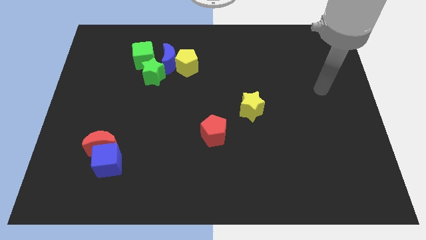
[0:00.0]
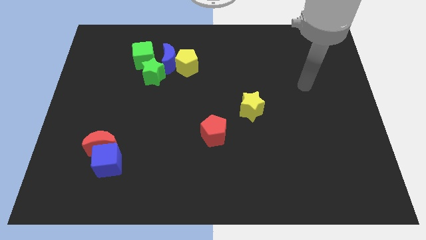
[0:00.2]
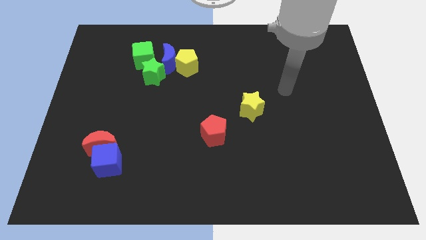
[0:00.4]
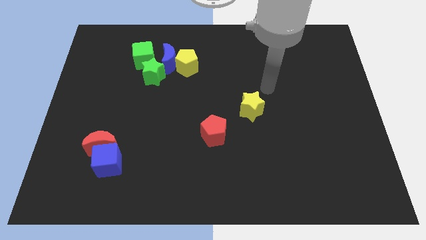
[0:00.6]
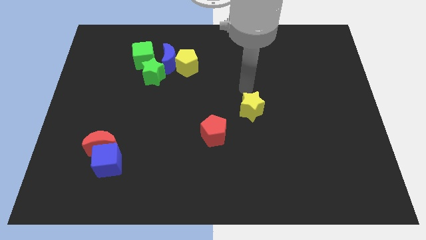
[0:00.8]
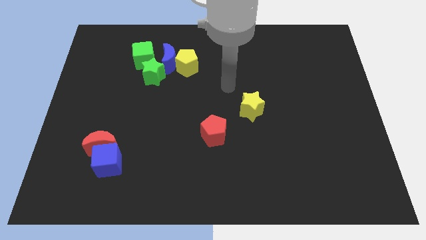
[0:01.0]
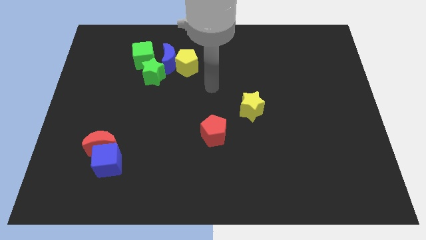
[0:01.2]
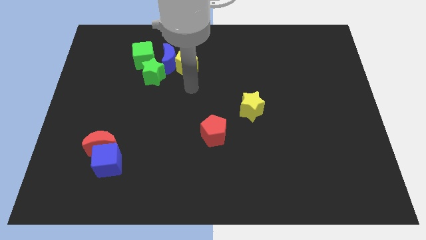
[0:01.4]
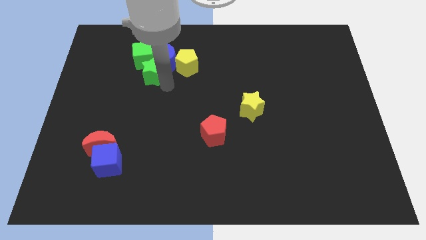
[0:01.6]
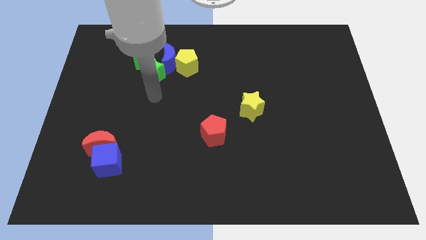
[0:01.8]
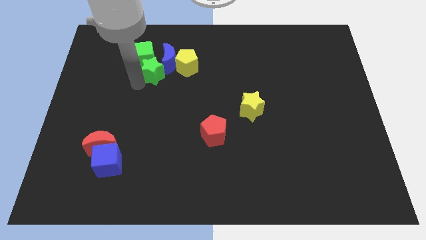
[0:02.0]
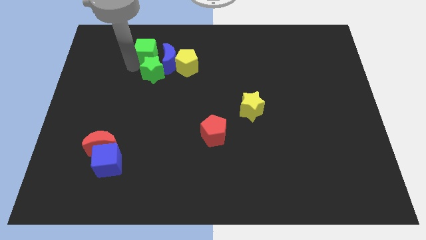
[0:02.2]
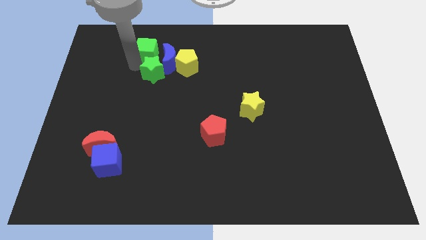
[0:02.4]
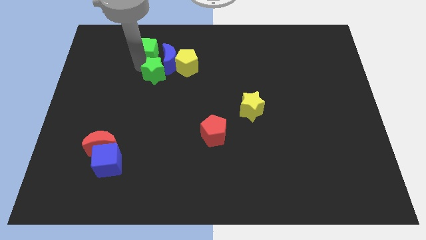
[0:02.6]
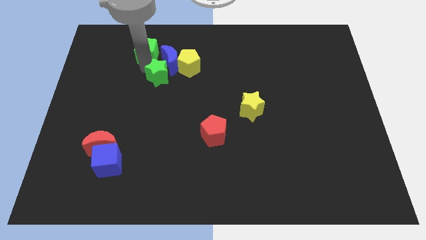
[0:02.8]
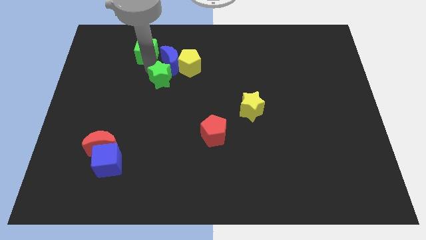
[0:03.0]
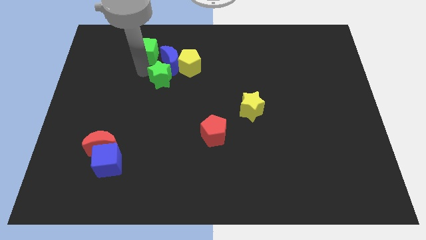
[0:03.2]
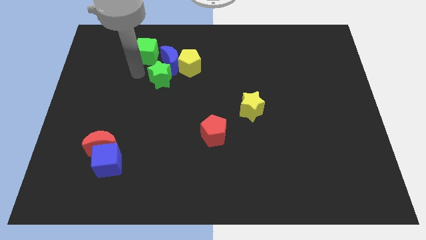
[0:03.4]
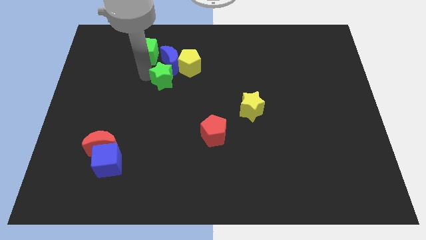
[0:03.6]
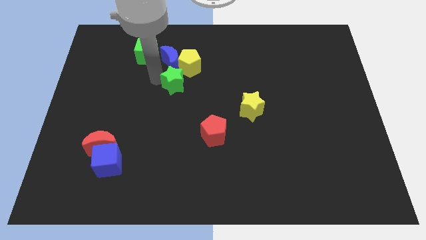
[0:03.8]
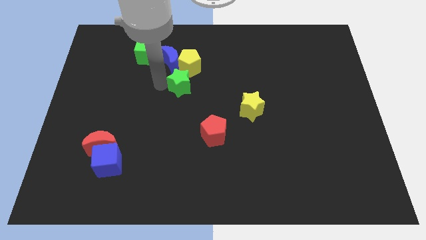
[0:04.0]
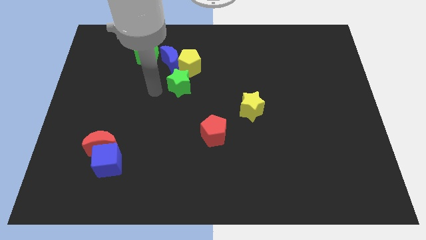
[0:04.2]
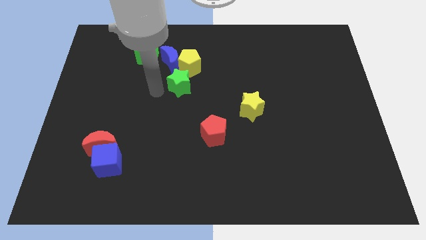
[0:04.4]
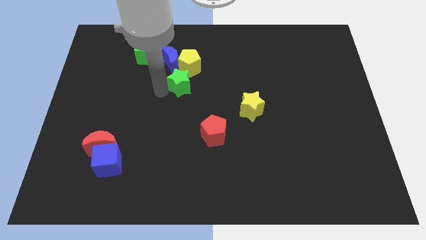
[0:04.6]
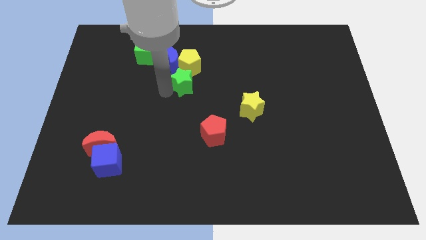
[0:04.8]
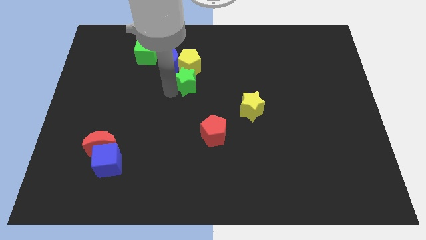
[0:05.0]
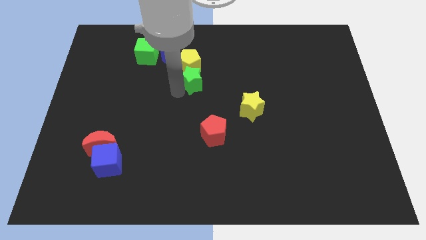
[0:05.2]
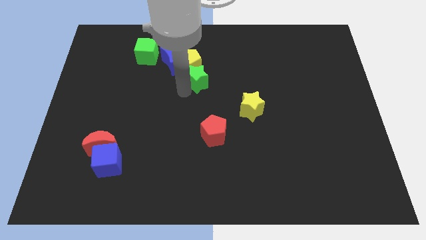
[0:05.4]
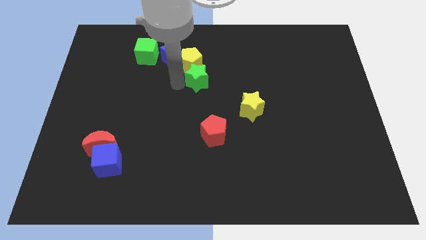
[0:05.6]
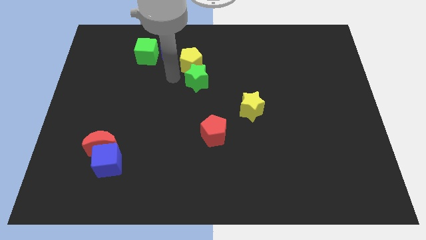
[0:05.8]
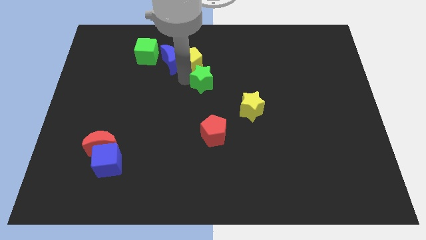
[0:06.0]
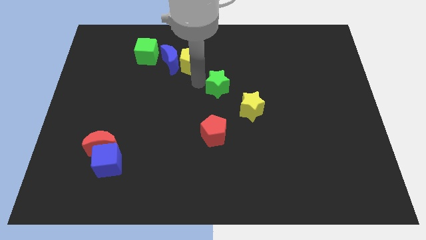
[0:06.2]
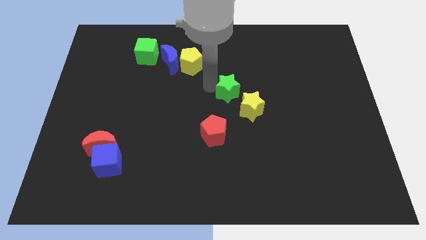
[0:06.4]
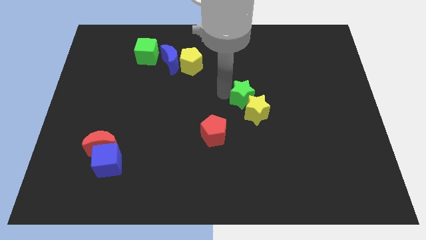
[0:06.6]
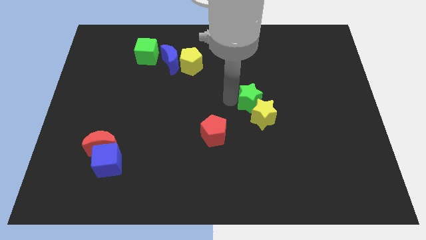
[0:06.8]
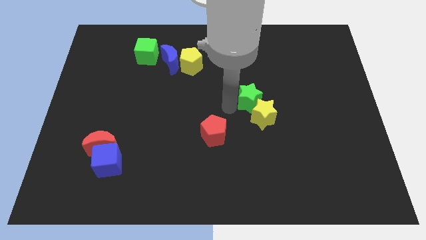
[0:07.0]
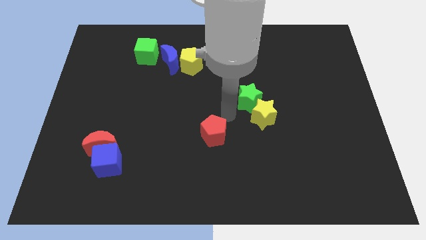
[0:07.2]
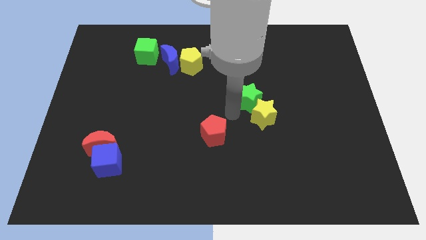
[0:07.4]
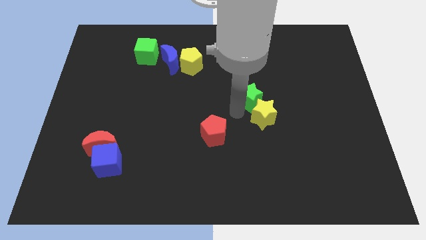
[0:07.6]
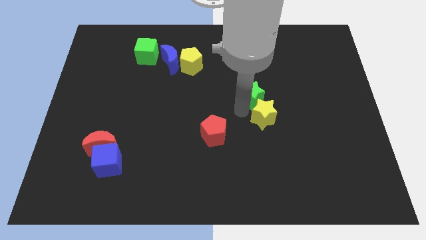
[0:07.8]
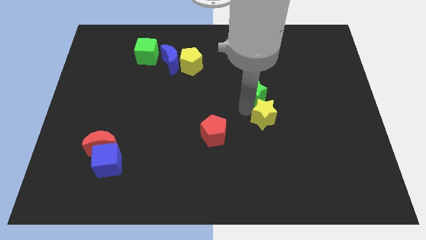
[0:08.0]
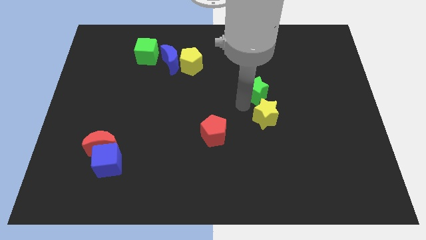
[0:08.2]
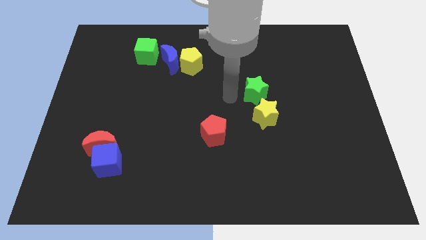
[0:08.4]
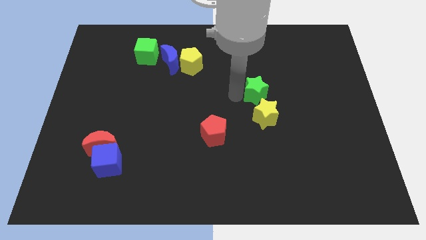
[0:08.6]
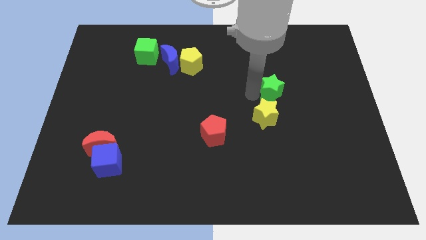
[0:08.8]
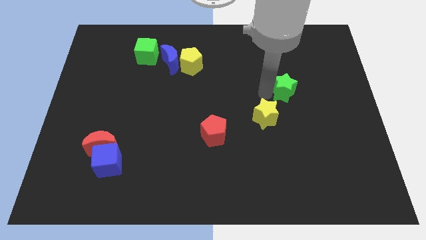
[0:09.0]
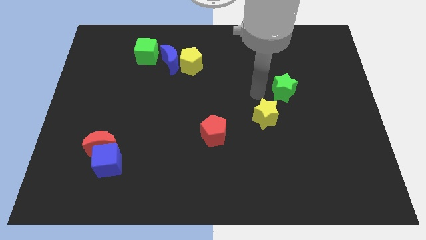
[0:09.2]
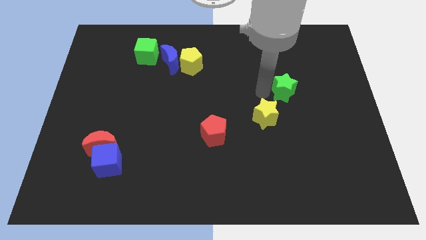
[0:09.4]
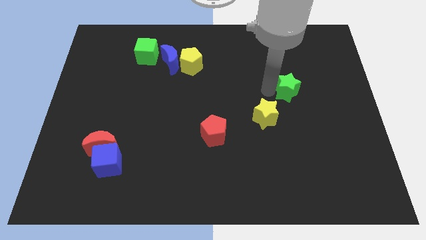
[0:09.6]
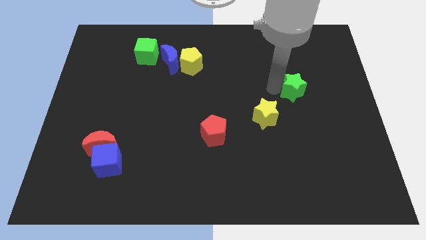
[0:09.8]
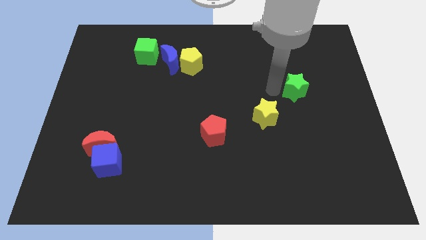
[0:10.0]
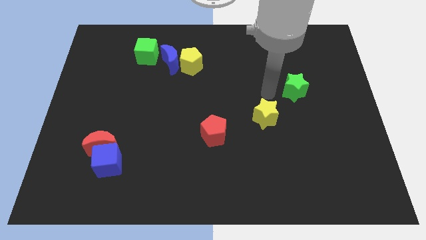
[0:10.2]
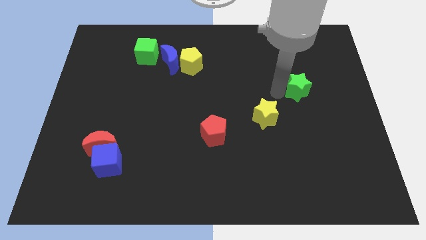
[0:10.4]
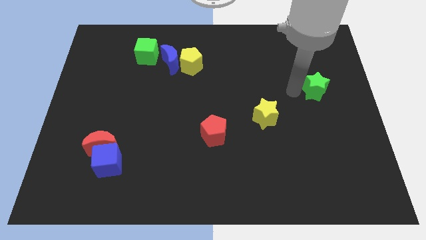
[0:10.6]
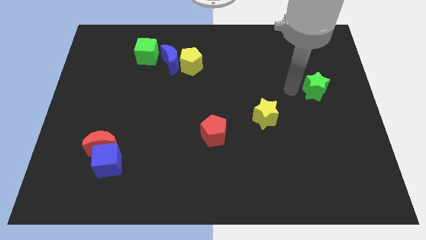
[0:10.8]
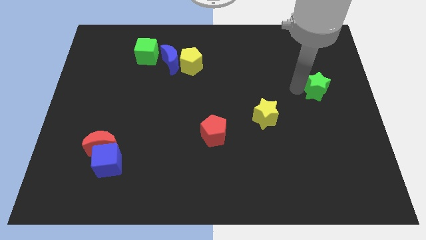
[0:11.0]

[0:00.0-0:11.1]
move the green star to the right side of the board

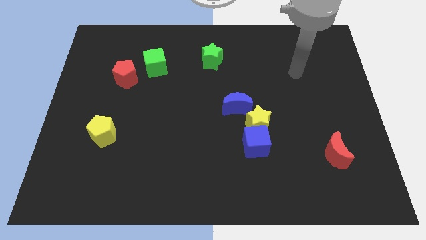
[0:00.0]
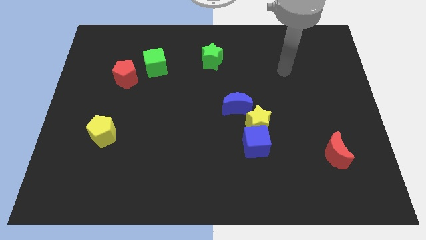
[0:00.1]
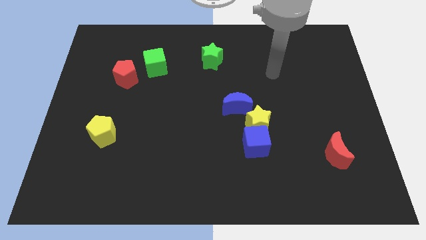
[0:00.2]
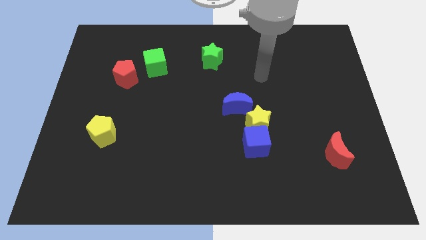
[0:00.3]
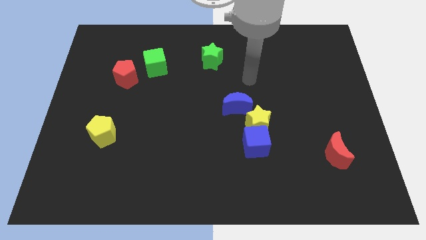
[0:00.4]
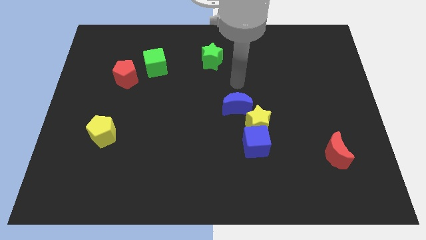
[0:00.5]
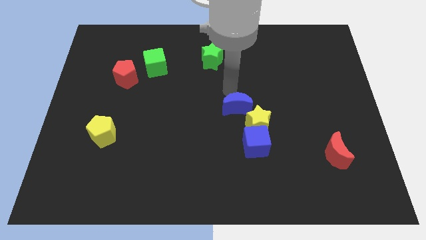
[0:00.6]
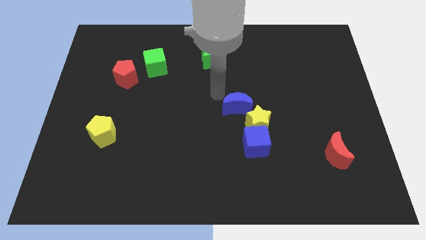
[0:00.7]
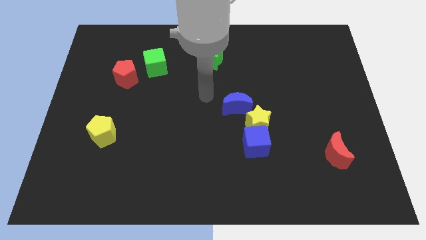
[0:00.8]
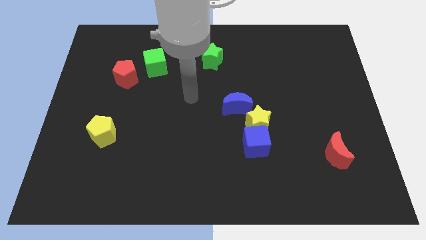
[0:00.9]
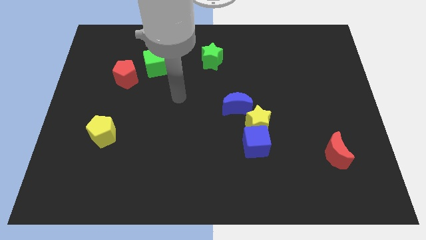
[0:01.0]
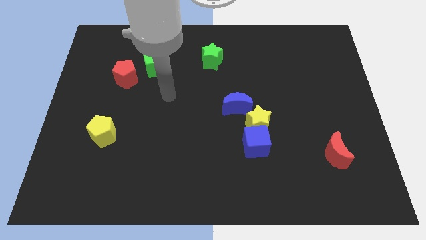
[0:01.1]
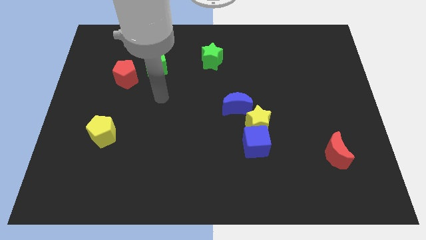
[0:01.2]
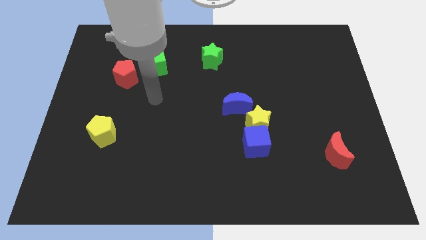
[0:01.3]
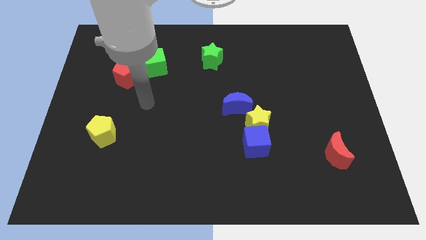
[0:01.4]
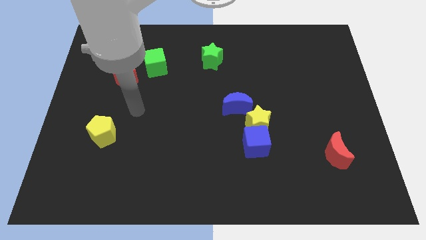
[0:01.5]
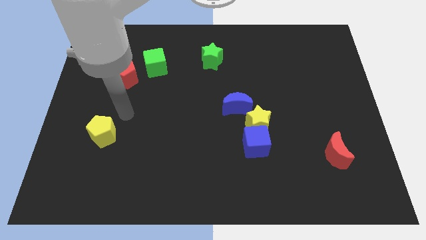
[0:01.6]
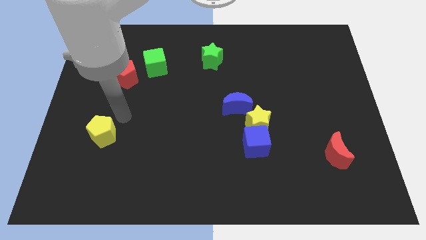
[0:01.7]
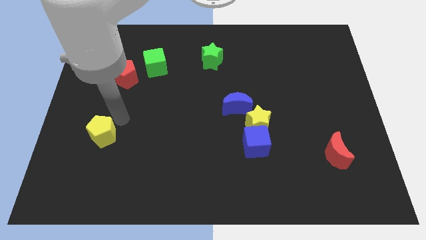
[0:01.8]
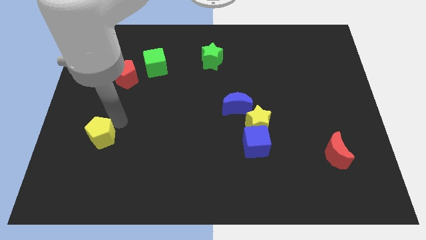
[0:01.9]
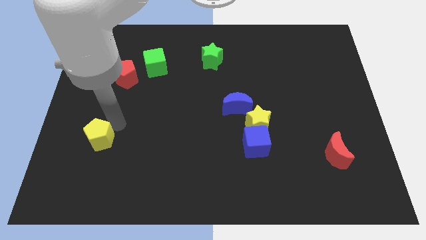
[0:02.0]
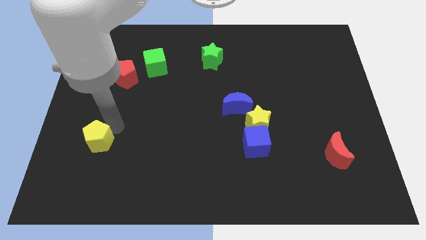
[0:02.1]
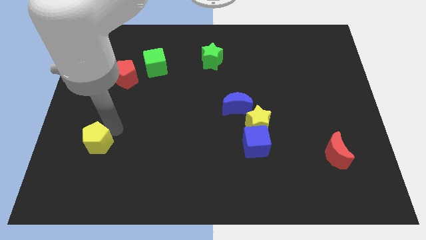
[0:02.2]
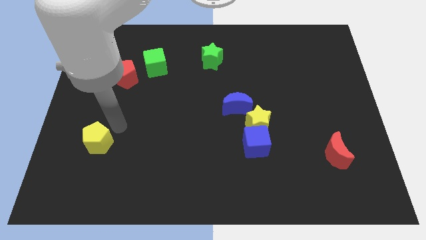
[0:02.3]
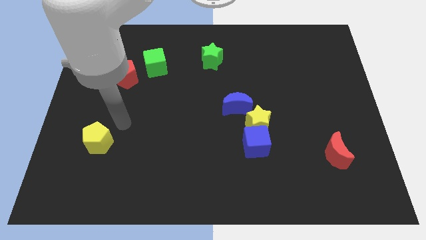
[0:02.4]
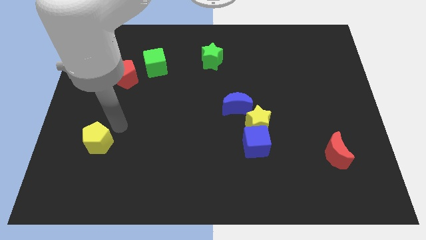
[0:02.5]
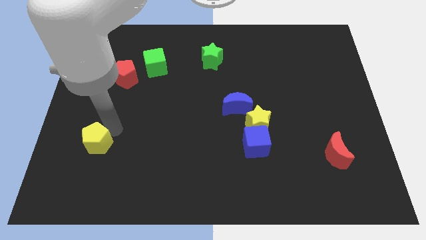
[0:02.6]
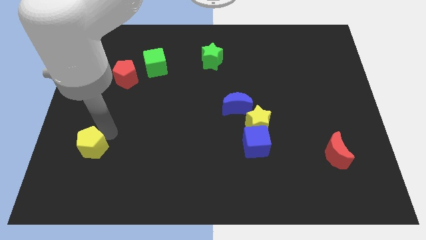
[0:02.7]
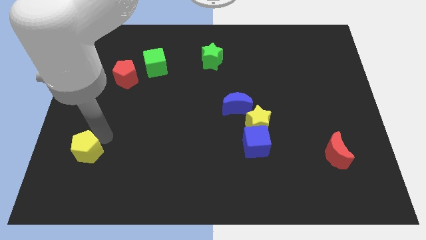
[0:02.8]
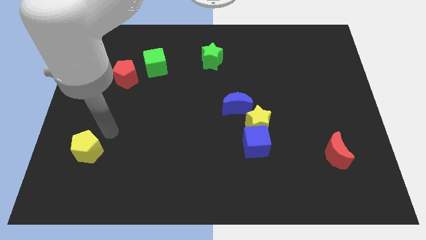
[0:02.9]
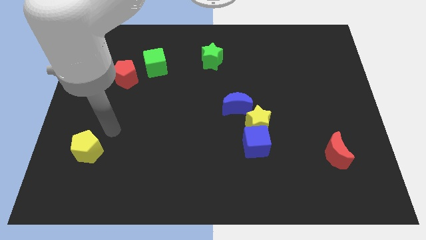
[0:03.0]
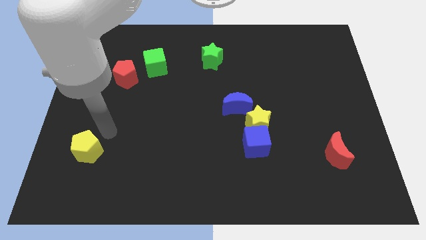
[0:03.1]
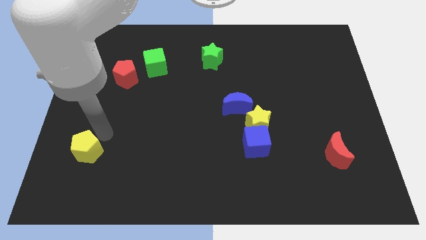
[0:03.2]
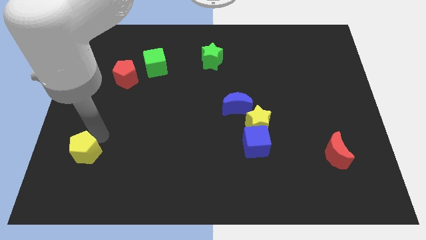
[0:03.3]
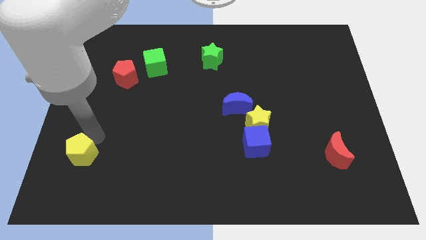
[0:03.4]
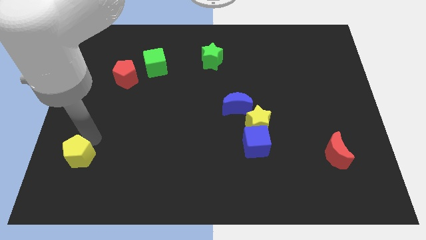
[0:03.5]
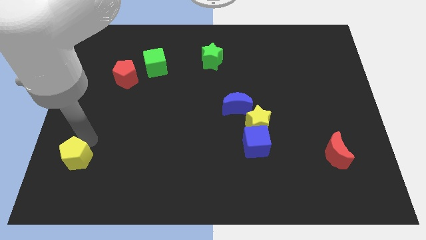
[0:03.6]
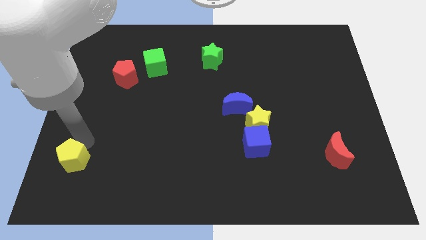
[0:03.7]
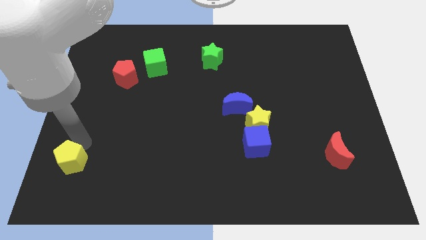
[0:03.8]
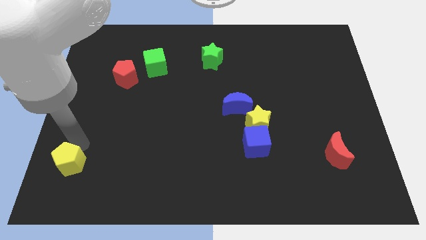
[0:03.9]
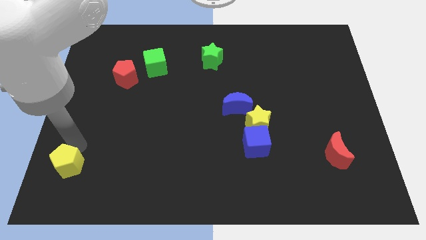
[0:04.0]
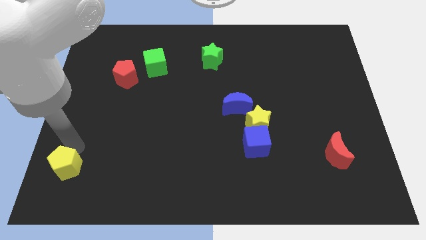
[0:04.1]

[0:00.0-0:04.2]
move the yellow pentagon to the lower left corner
